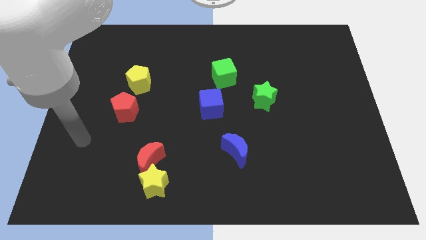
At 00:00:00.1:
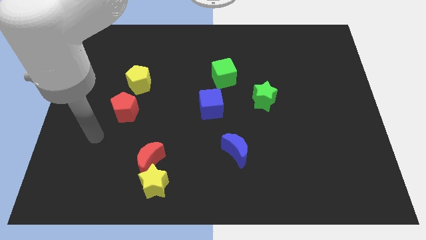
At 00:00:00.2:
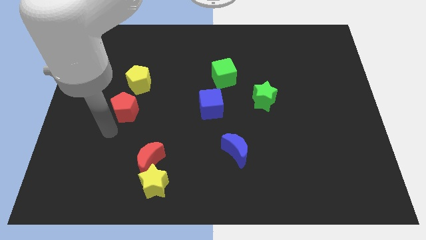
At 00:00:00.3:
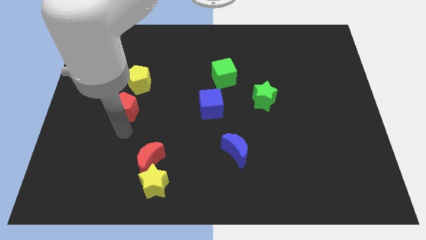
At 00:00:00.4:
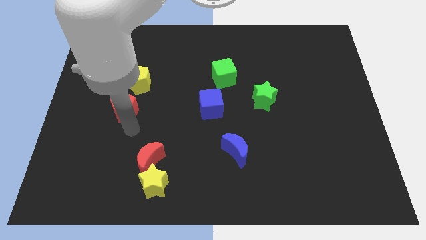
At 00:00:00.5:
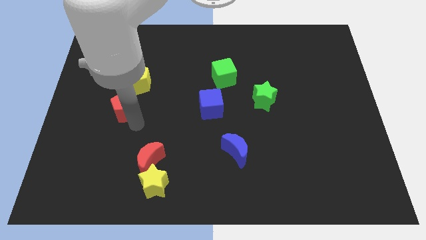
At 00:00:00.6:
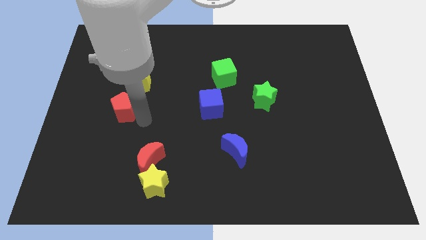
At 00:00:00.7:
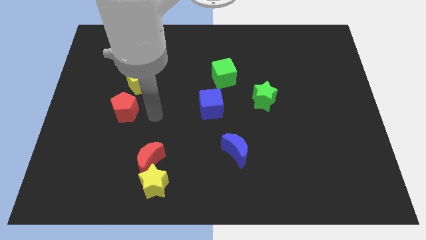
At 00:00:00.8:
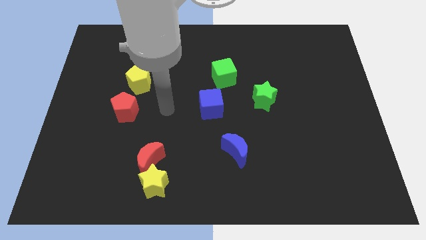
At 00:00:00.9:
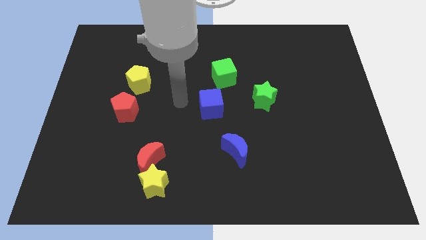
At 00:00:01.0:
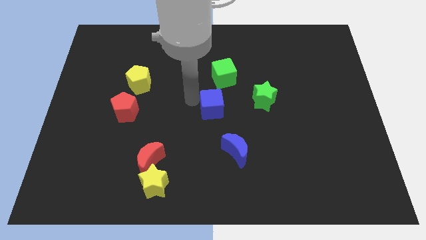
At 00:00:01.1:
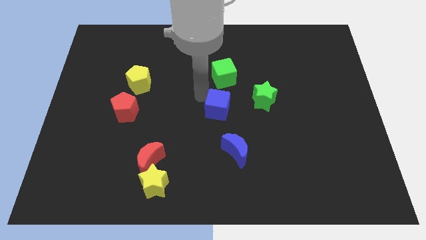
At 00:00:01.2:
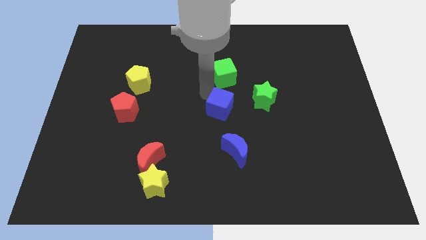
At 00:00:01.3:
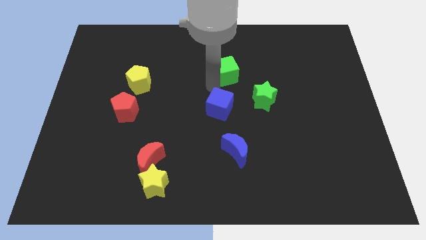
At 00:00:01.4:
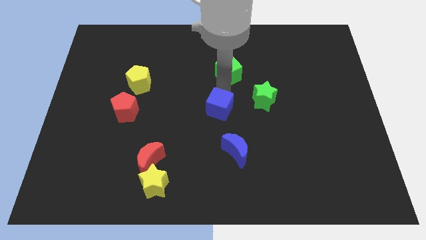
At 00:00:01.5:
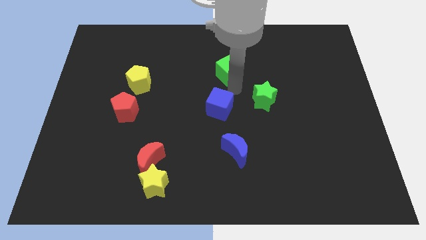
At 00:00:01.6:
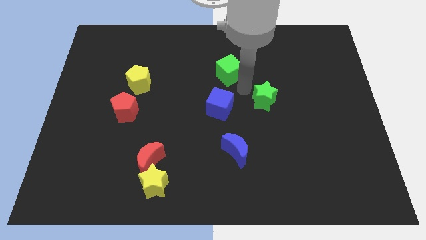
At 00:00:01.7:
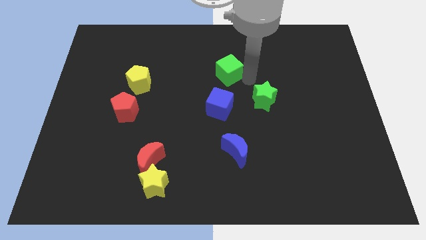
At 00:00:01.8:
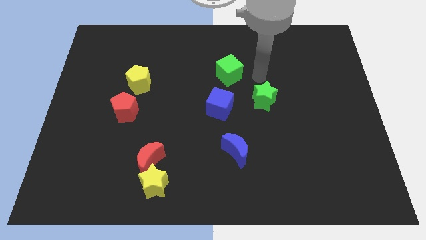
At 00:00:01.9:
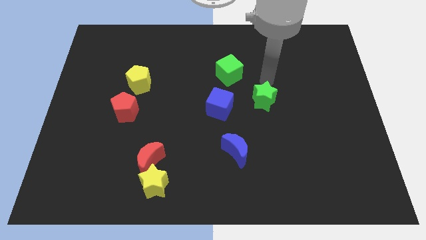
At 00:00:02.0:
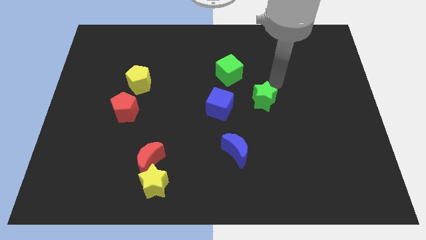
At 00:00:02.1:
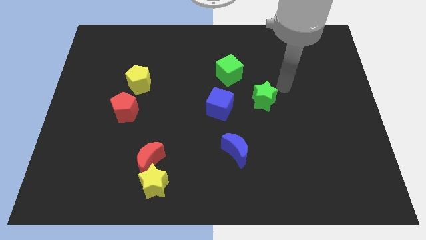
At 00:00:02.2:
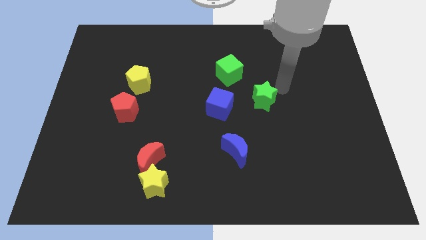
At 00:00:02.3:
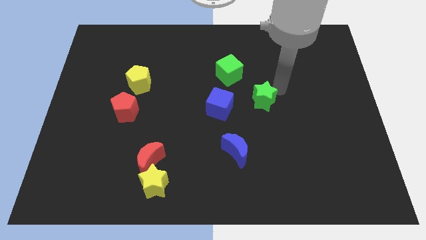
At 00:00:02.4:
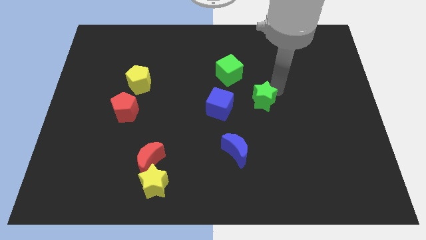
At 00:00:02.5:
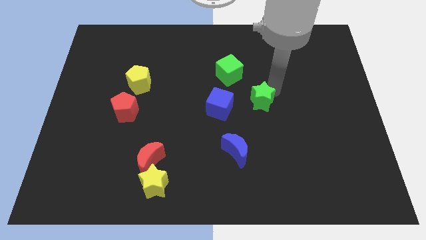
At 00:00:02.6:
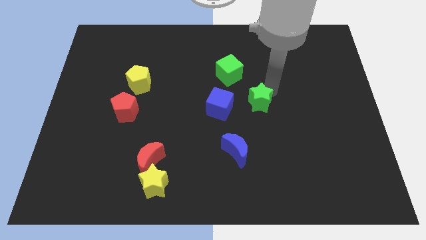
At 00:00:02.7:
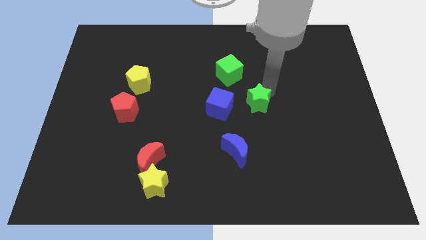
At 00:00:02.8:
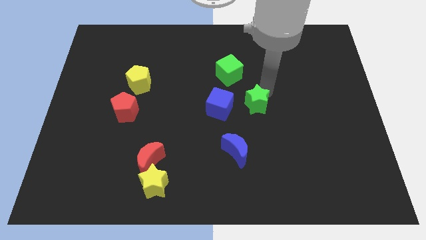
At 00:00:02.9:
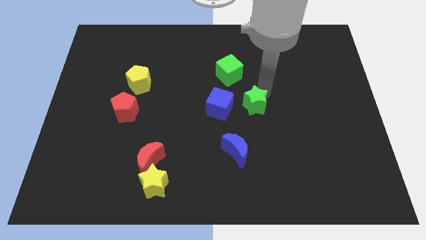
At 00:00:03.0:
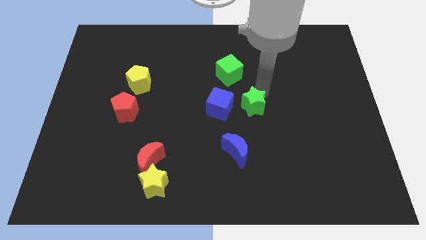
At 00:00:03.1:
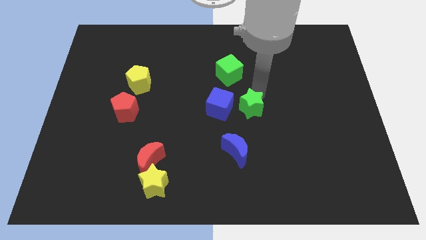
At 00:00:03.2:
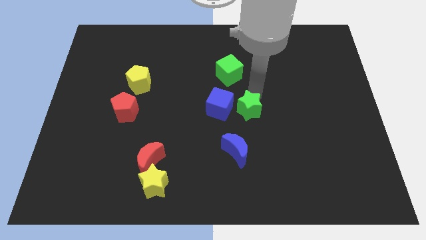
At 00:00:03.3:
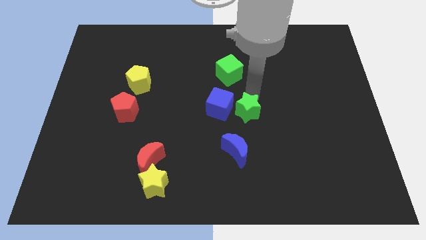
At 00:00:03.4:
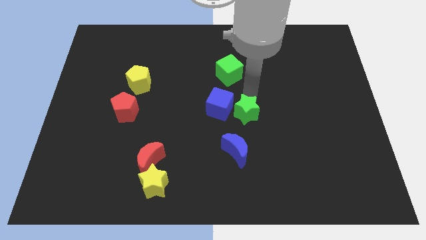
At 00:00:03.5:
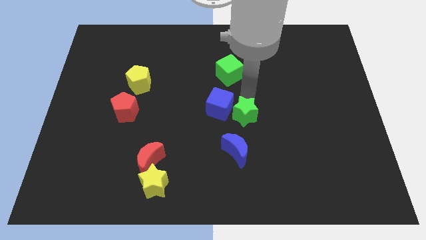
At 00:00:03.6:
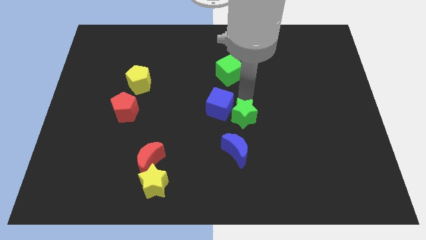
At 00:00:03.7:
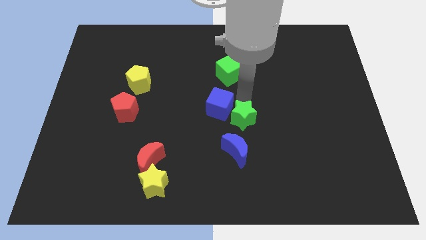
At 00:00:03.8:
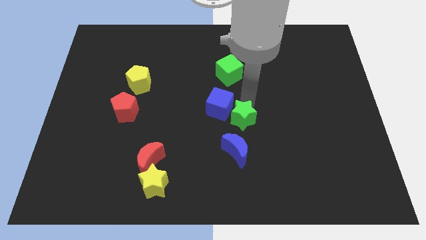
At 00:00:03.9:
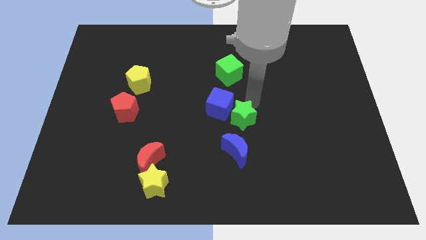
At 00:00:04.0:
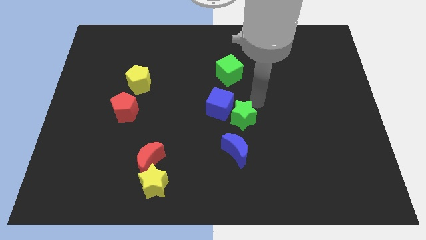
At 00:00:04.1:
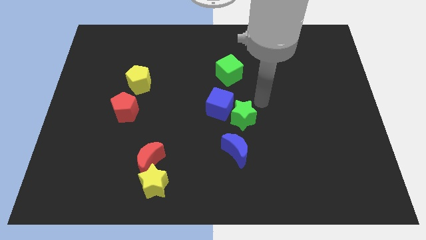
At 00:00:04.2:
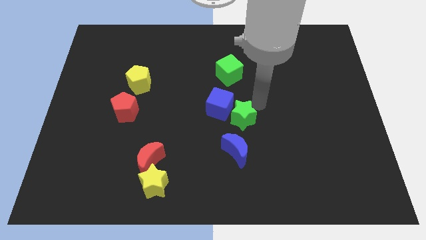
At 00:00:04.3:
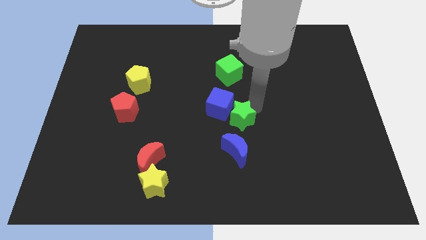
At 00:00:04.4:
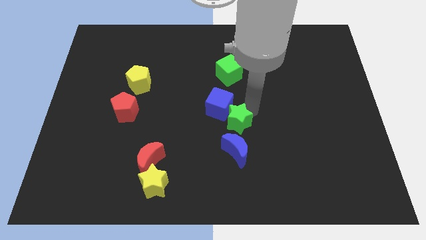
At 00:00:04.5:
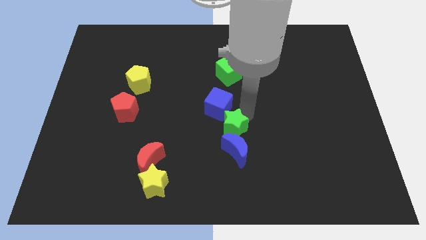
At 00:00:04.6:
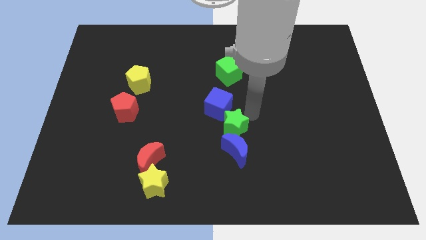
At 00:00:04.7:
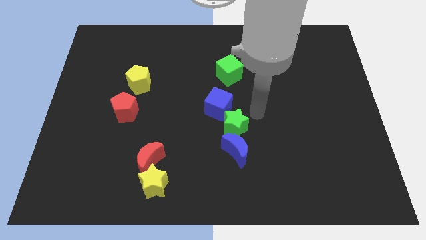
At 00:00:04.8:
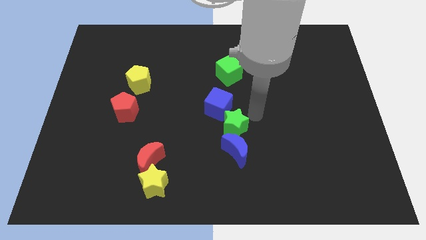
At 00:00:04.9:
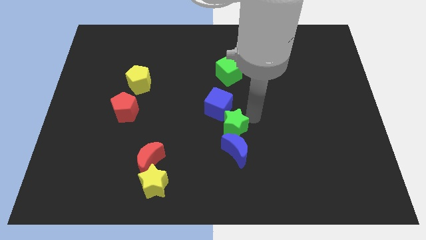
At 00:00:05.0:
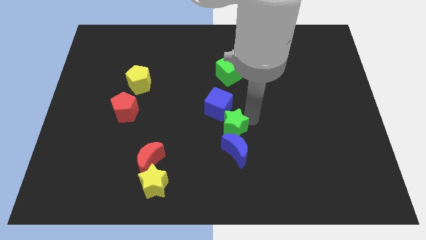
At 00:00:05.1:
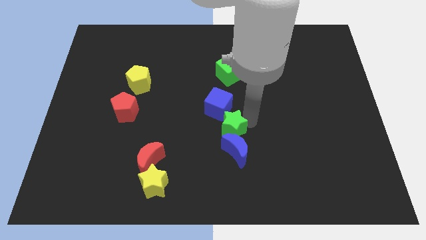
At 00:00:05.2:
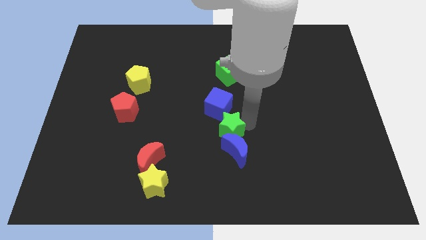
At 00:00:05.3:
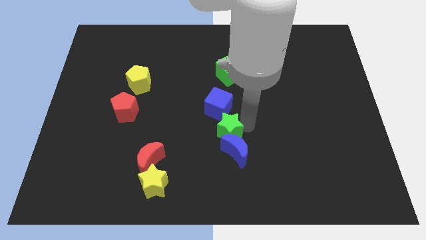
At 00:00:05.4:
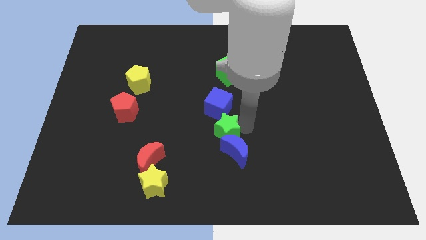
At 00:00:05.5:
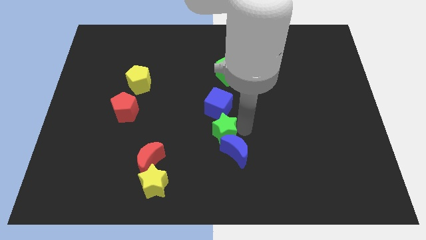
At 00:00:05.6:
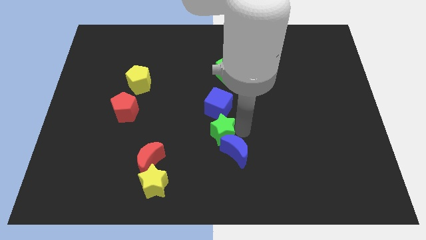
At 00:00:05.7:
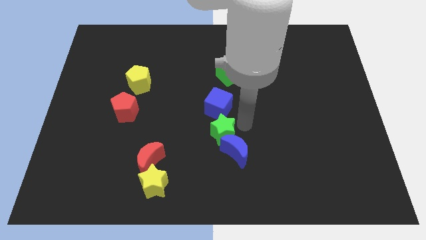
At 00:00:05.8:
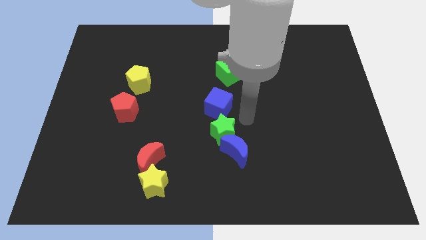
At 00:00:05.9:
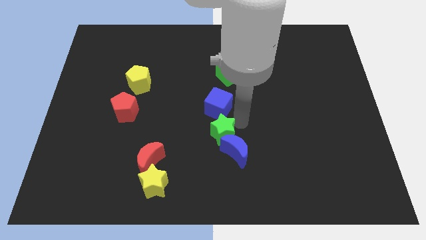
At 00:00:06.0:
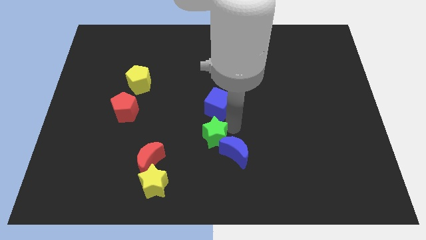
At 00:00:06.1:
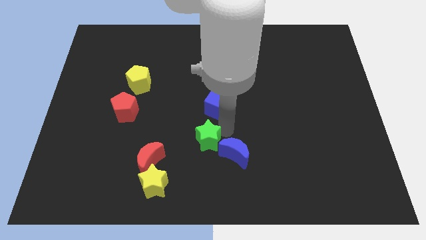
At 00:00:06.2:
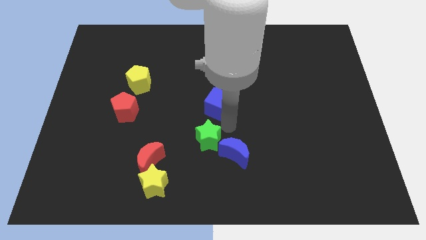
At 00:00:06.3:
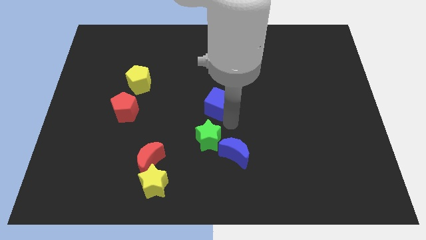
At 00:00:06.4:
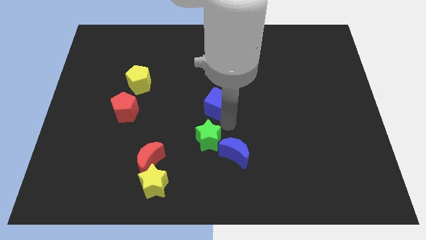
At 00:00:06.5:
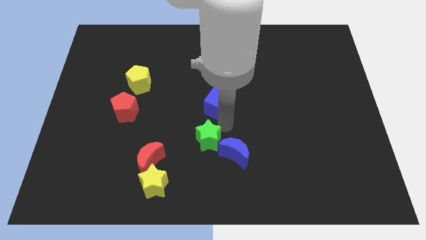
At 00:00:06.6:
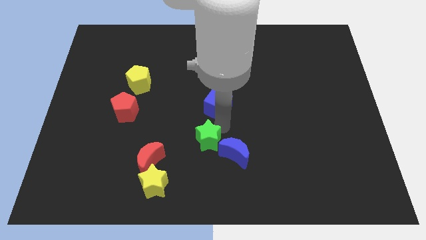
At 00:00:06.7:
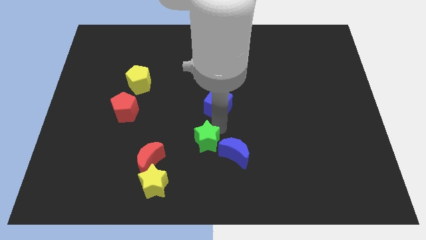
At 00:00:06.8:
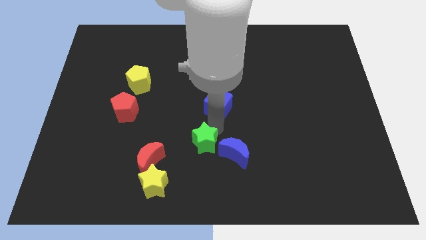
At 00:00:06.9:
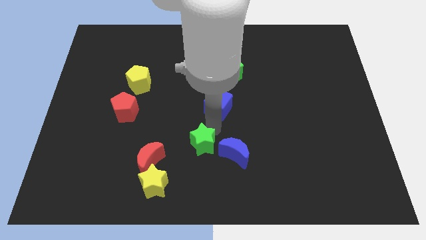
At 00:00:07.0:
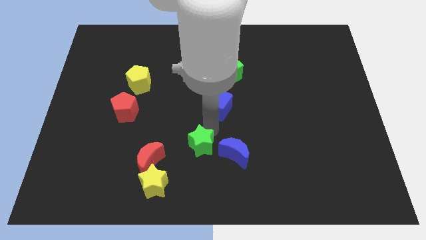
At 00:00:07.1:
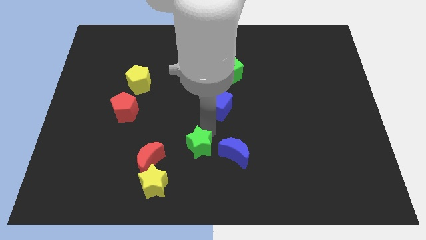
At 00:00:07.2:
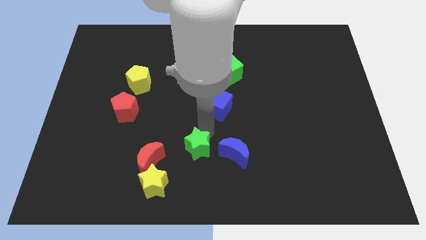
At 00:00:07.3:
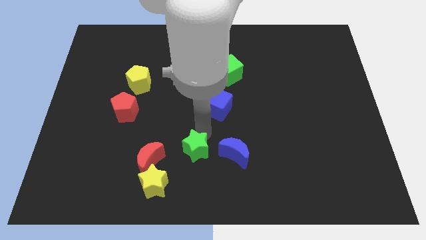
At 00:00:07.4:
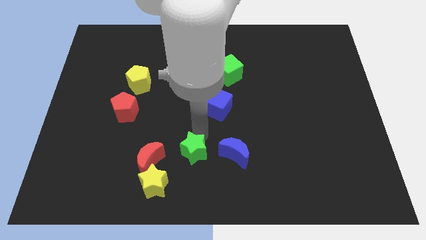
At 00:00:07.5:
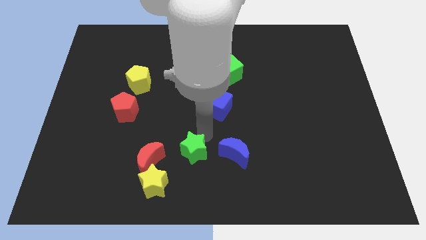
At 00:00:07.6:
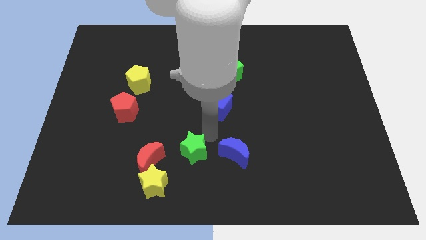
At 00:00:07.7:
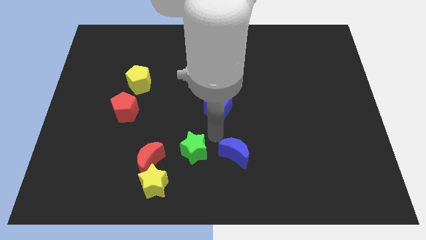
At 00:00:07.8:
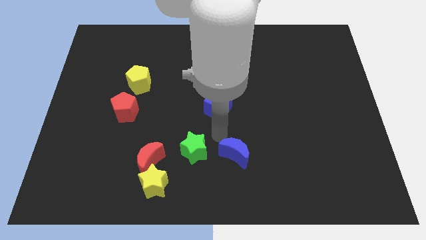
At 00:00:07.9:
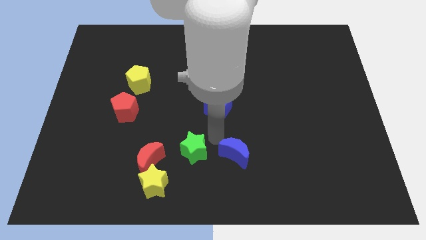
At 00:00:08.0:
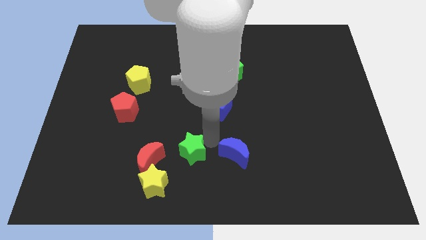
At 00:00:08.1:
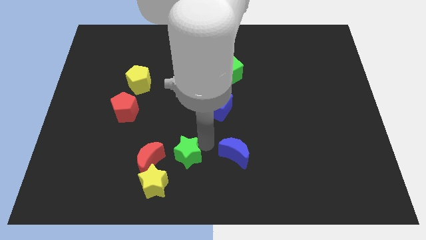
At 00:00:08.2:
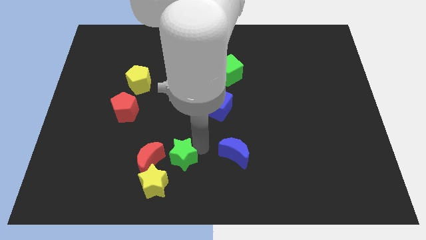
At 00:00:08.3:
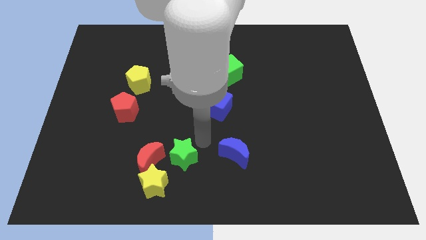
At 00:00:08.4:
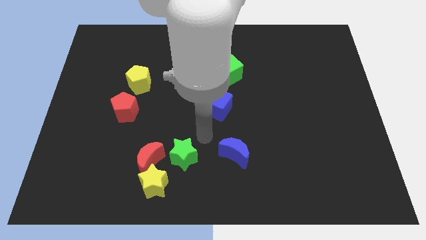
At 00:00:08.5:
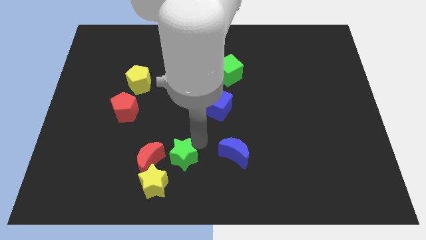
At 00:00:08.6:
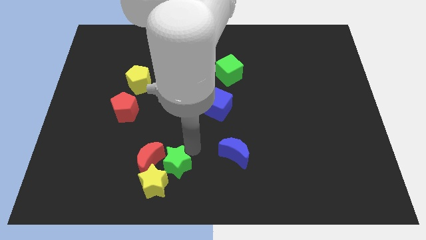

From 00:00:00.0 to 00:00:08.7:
push the green star towards the yellow star
